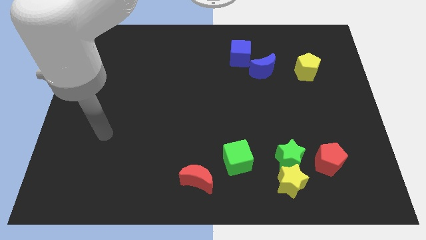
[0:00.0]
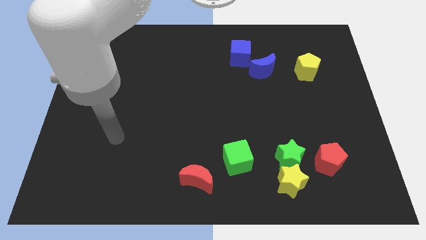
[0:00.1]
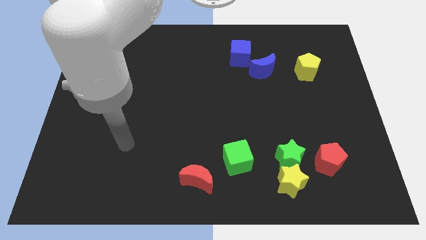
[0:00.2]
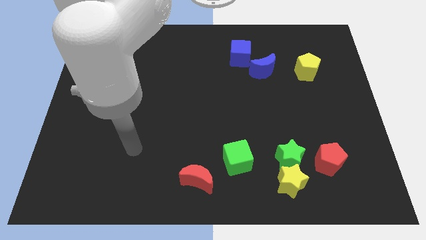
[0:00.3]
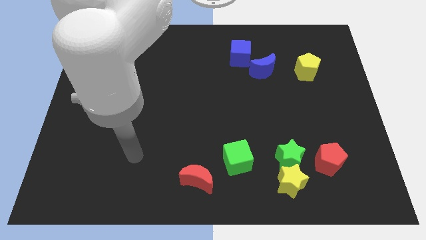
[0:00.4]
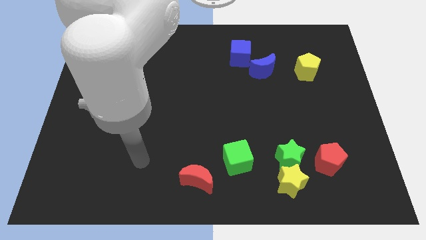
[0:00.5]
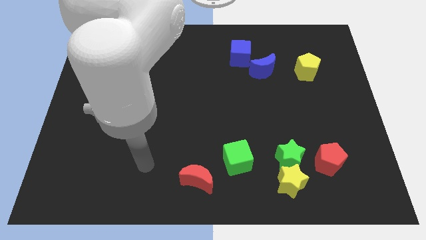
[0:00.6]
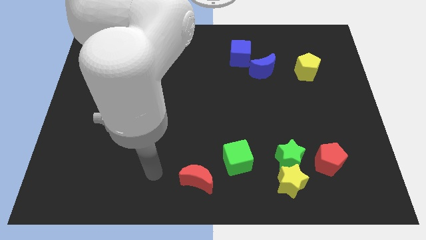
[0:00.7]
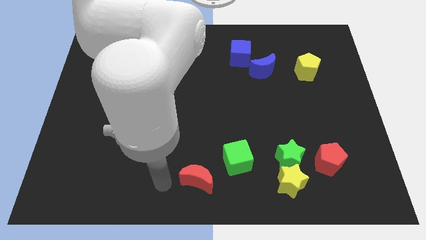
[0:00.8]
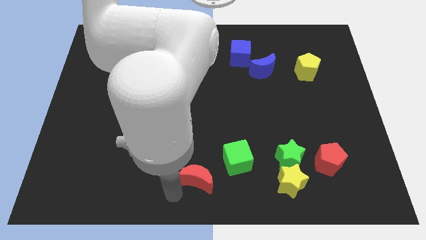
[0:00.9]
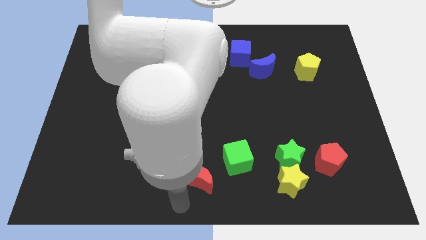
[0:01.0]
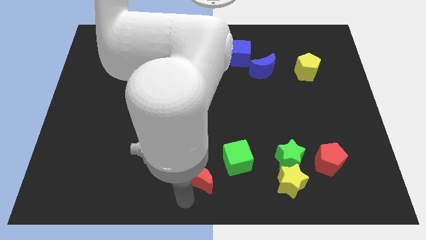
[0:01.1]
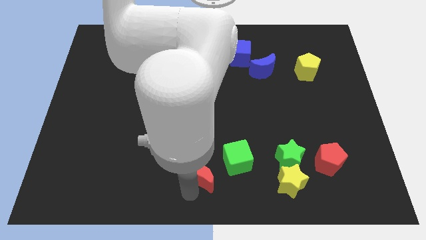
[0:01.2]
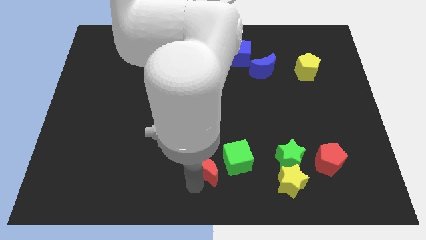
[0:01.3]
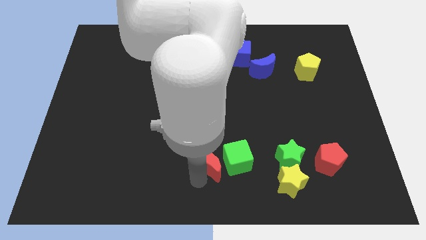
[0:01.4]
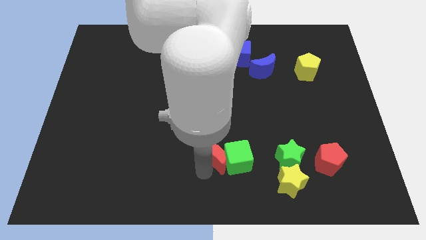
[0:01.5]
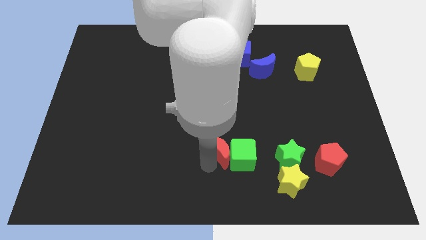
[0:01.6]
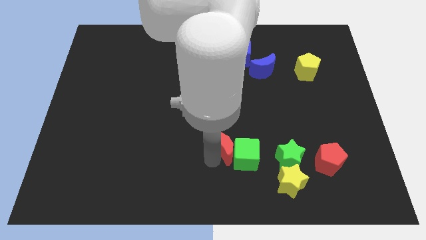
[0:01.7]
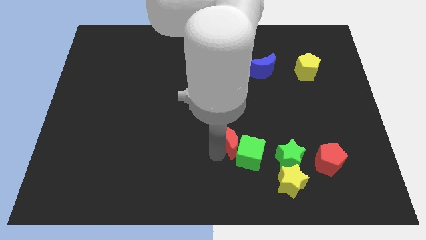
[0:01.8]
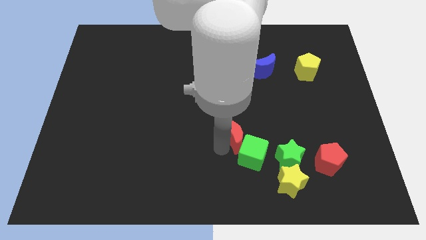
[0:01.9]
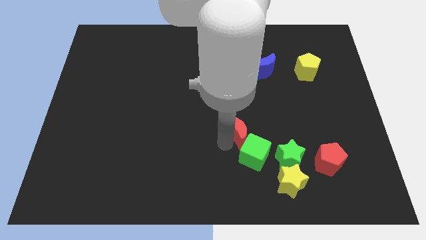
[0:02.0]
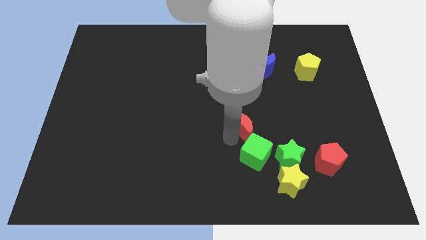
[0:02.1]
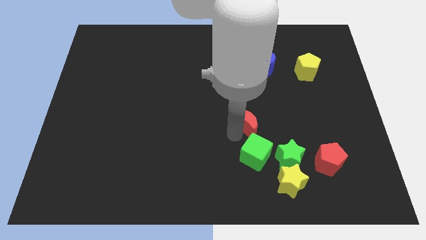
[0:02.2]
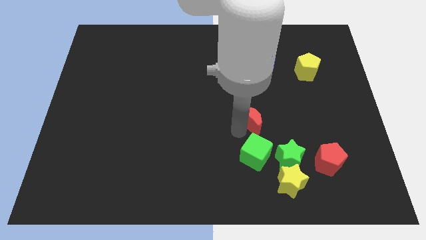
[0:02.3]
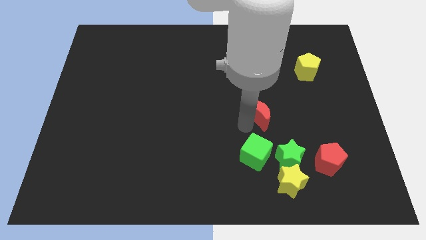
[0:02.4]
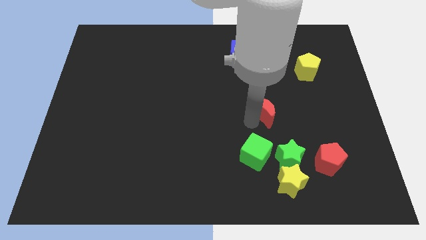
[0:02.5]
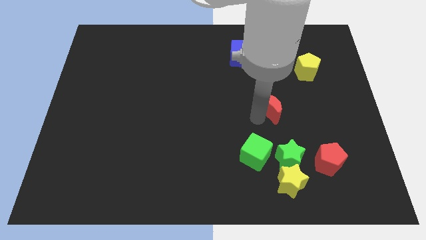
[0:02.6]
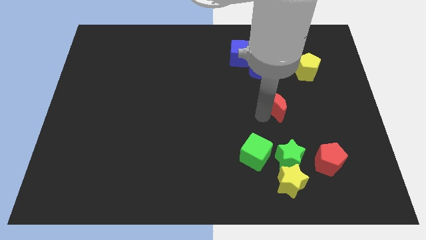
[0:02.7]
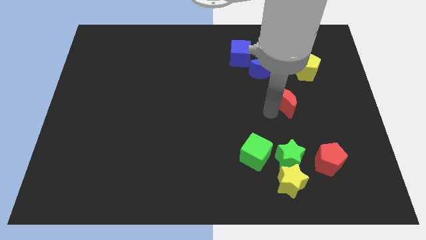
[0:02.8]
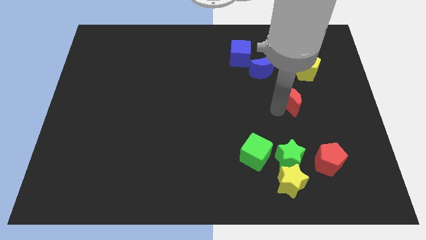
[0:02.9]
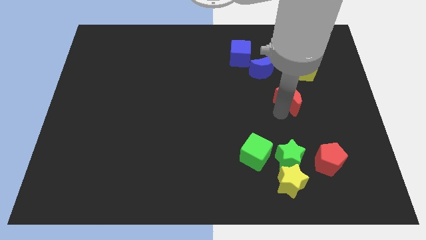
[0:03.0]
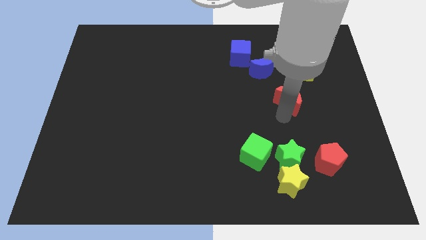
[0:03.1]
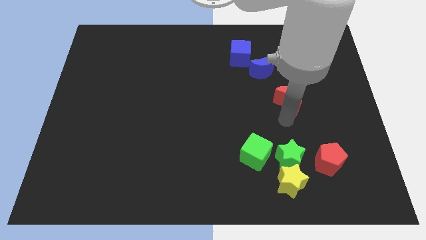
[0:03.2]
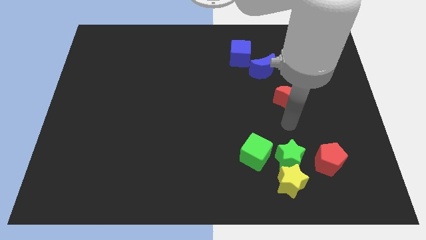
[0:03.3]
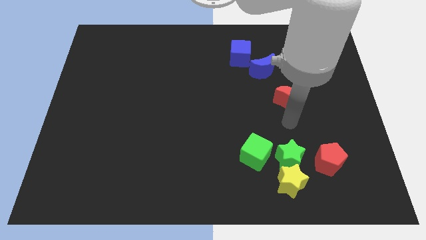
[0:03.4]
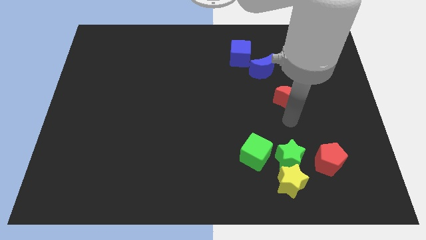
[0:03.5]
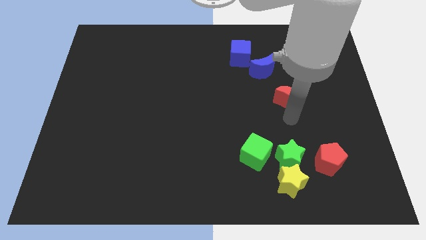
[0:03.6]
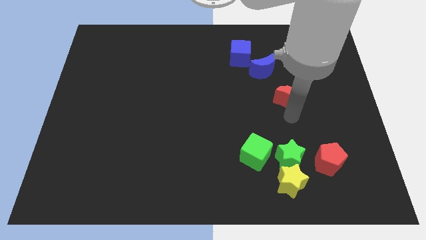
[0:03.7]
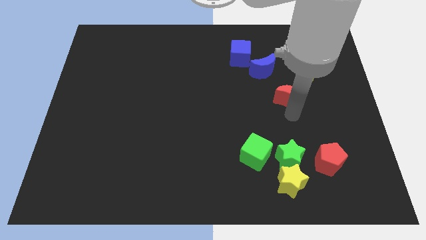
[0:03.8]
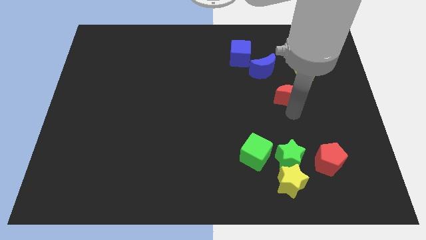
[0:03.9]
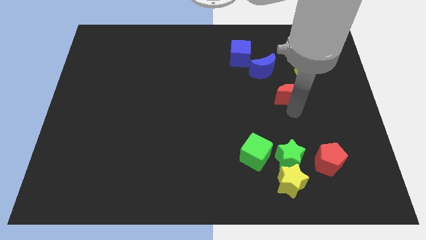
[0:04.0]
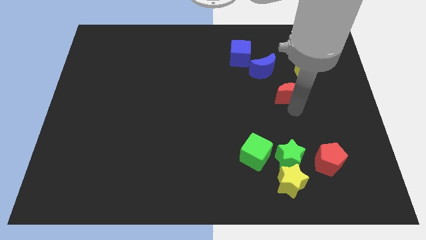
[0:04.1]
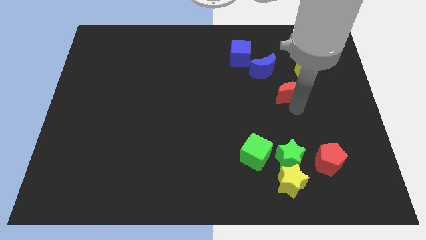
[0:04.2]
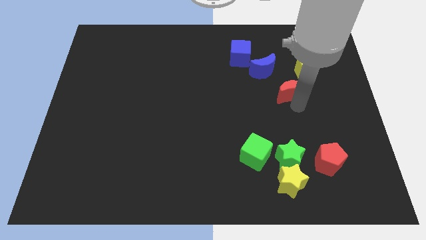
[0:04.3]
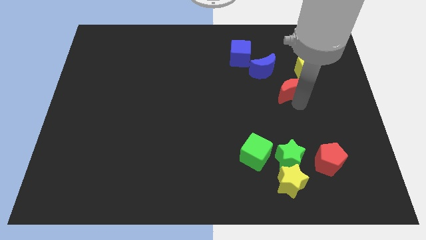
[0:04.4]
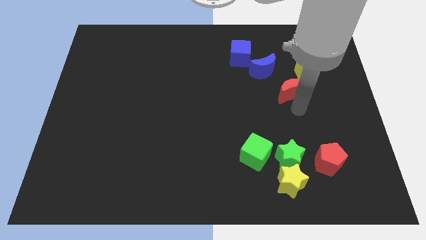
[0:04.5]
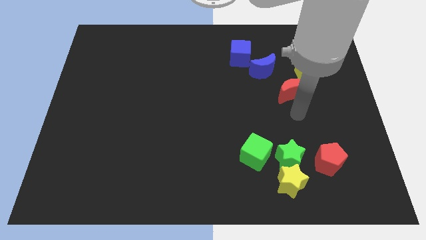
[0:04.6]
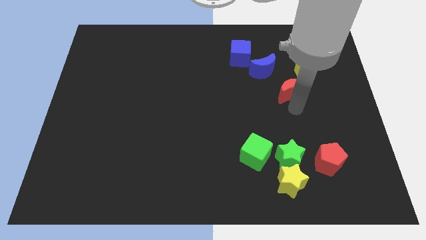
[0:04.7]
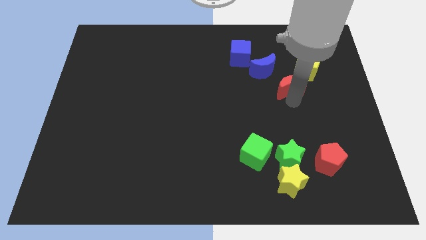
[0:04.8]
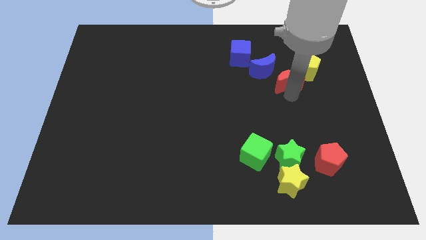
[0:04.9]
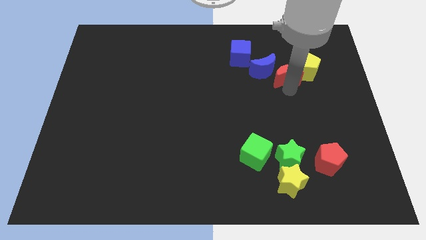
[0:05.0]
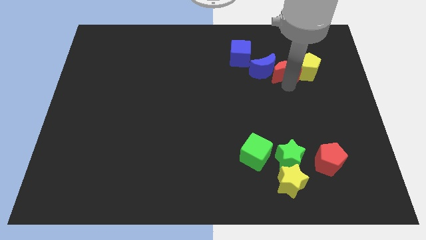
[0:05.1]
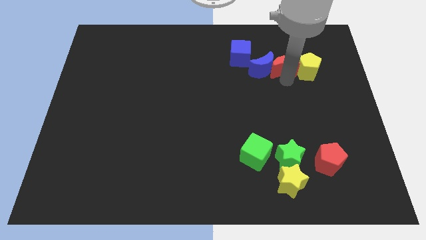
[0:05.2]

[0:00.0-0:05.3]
move the red moon to the right side of the blue cube

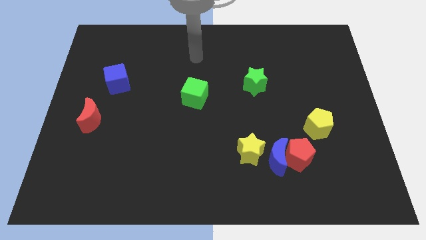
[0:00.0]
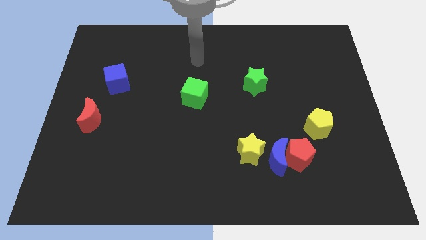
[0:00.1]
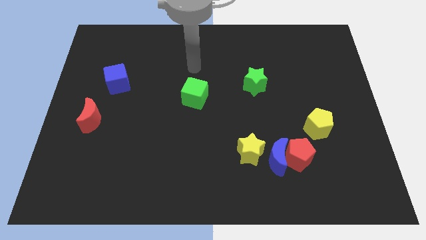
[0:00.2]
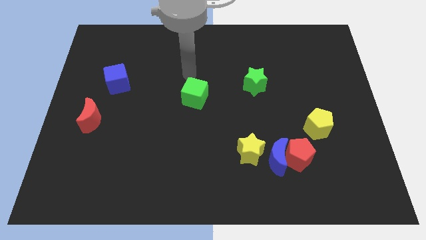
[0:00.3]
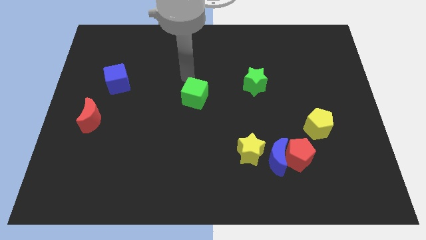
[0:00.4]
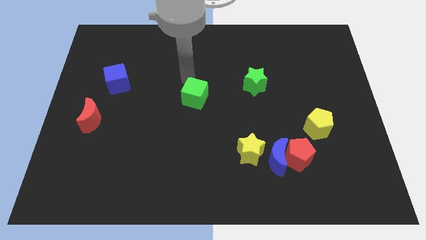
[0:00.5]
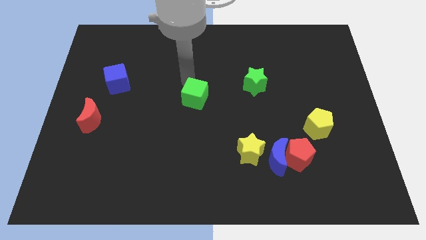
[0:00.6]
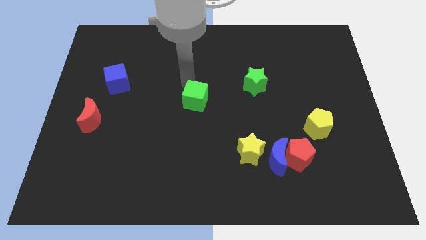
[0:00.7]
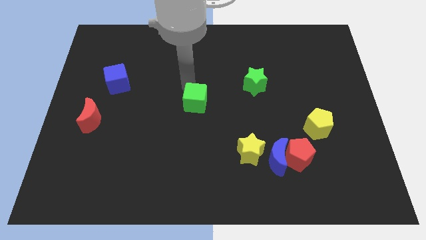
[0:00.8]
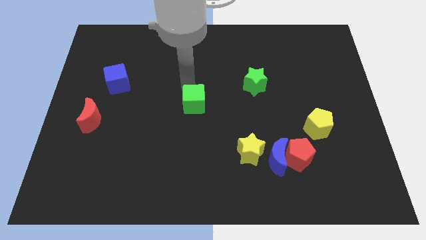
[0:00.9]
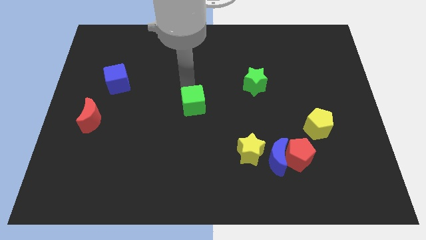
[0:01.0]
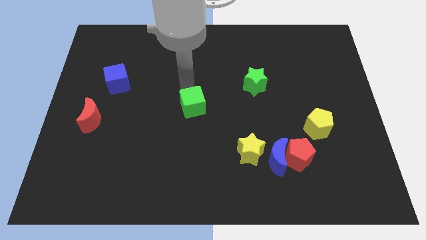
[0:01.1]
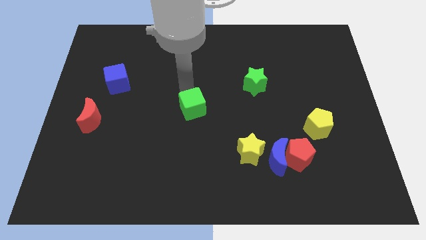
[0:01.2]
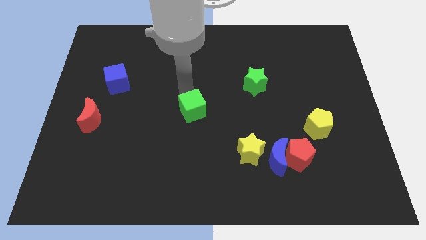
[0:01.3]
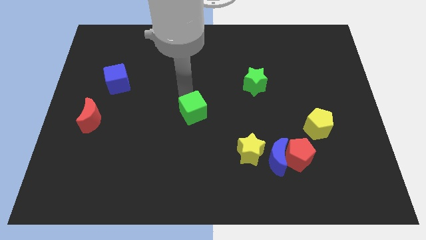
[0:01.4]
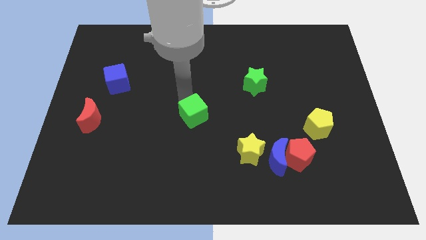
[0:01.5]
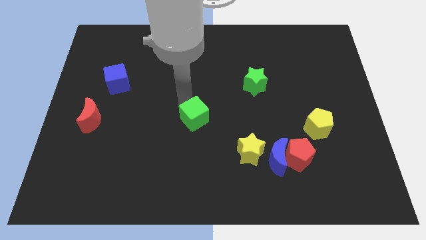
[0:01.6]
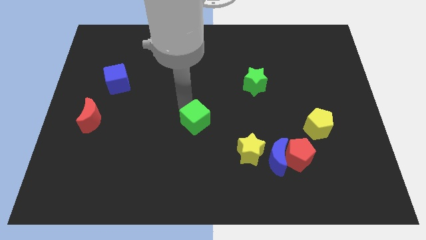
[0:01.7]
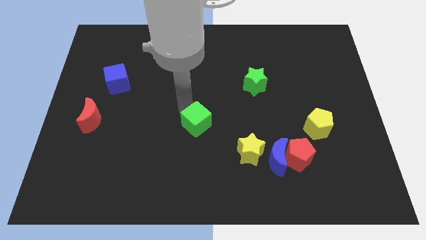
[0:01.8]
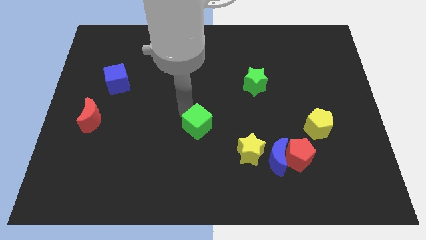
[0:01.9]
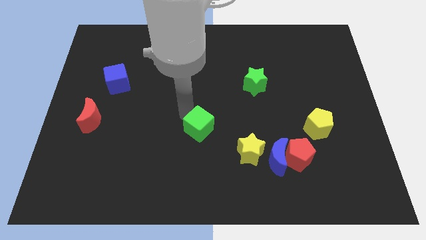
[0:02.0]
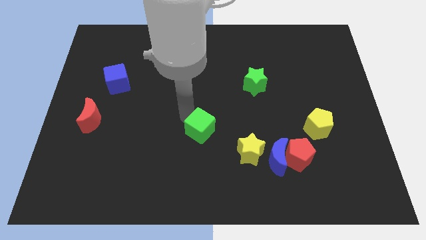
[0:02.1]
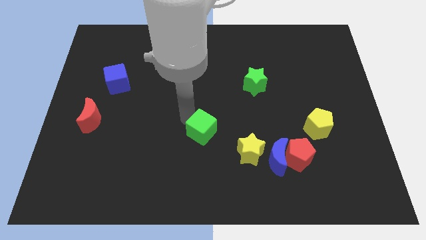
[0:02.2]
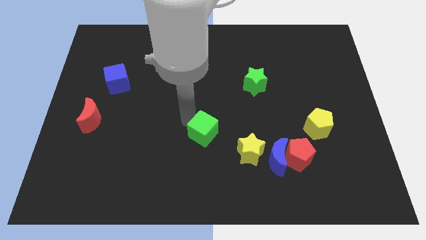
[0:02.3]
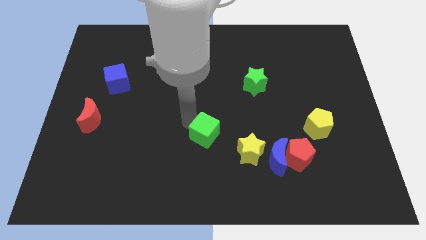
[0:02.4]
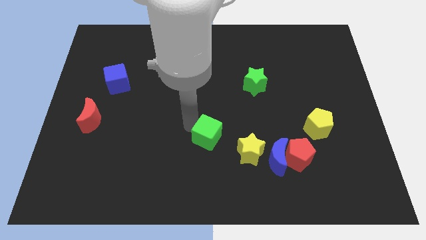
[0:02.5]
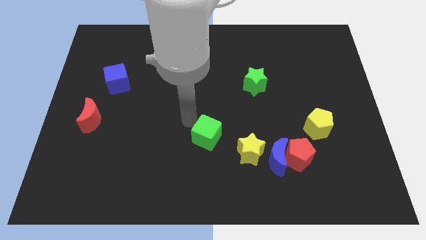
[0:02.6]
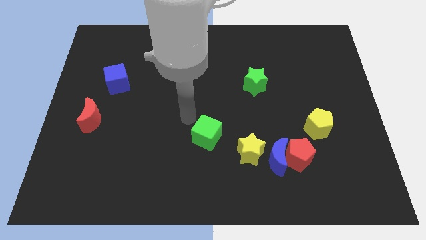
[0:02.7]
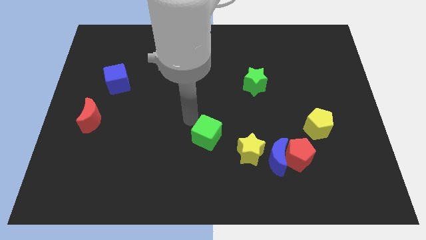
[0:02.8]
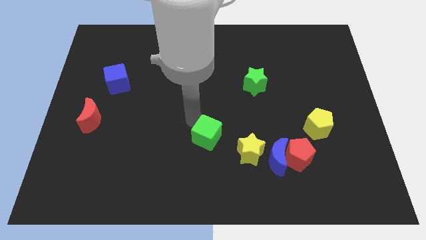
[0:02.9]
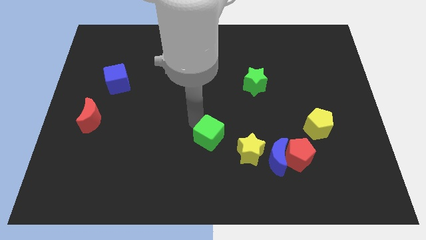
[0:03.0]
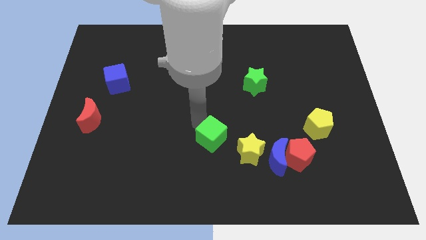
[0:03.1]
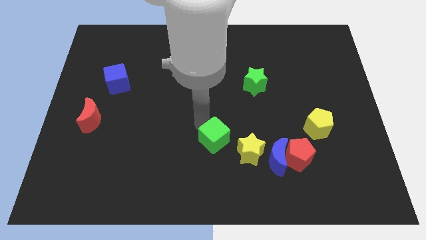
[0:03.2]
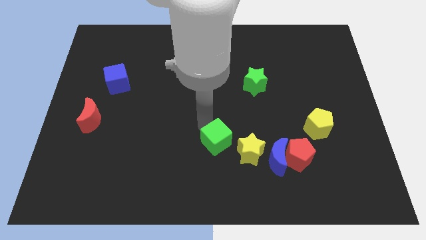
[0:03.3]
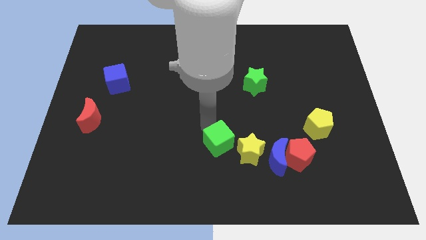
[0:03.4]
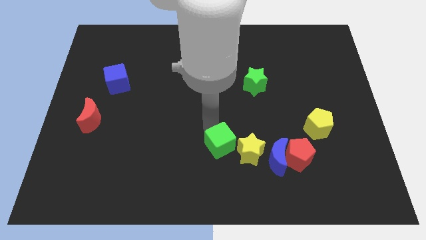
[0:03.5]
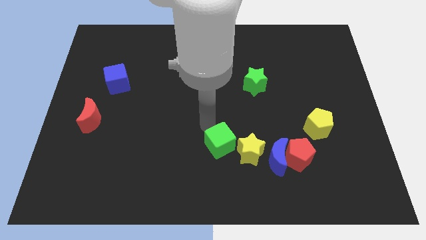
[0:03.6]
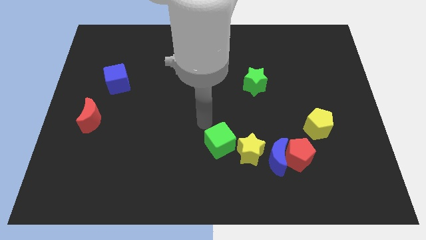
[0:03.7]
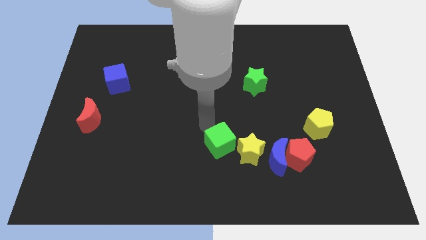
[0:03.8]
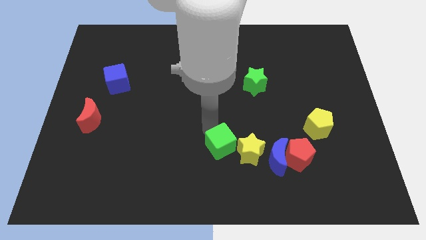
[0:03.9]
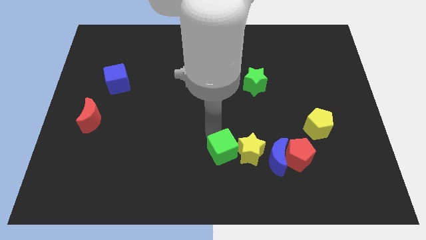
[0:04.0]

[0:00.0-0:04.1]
put the green cube to the left side of the red pentagon
